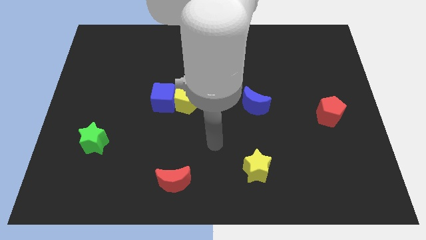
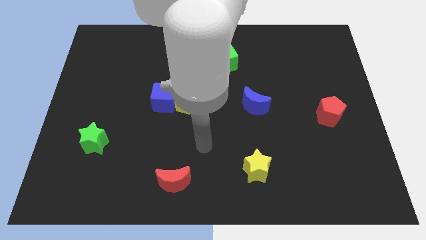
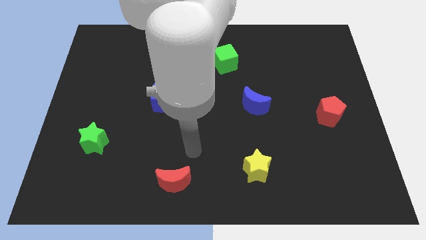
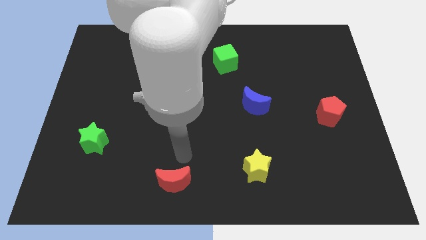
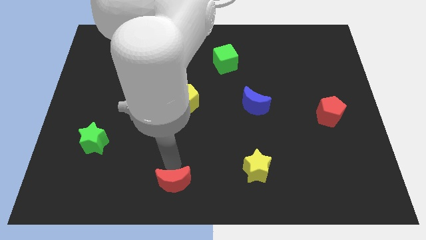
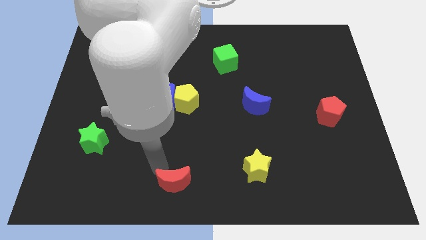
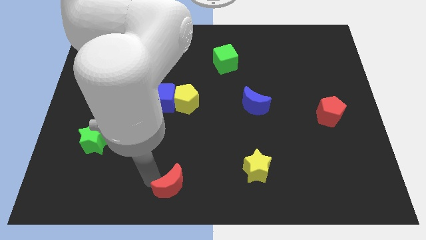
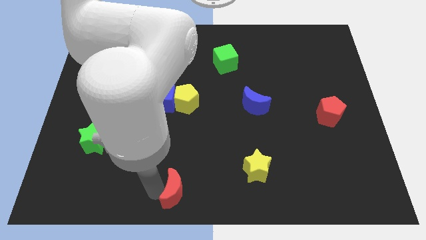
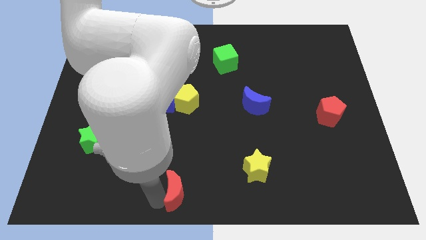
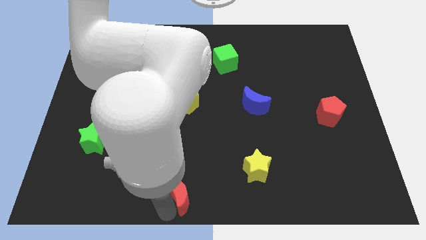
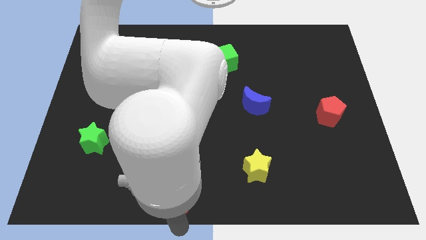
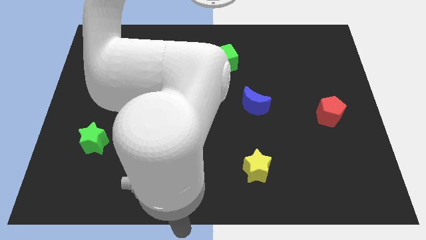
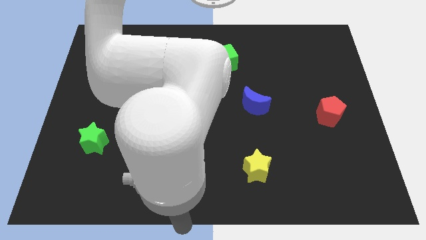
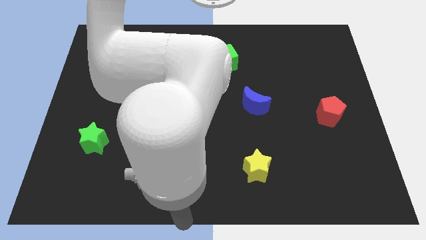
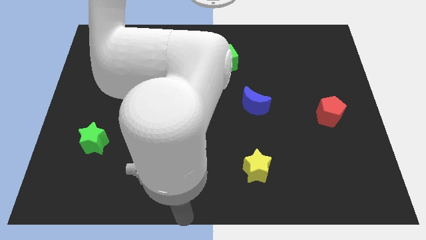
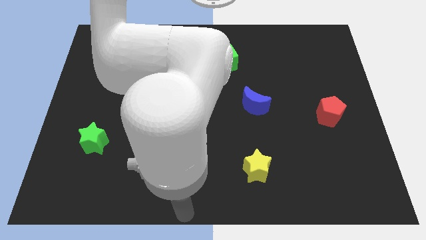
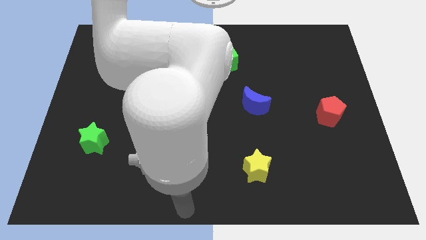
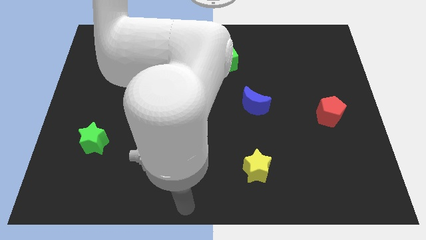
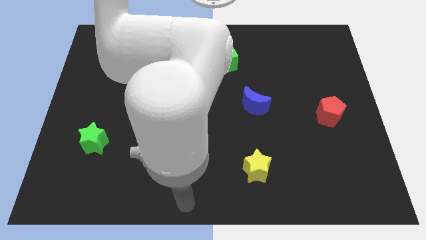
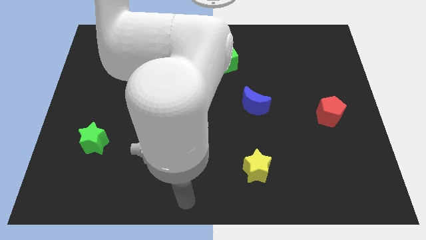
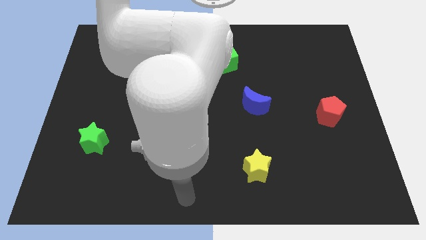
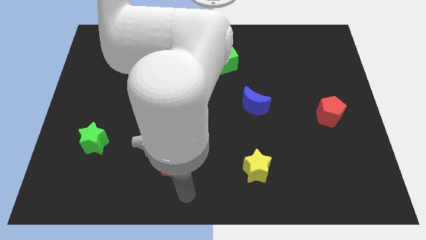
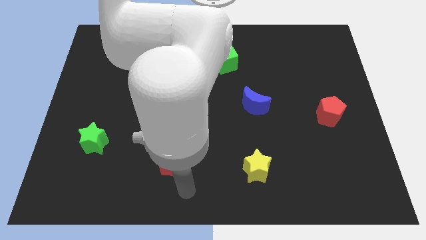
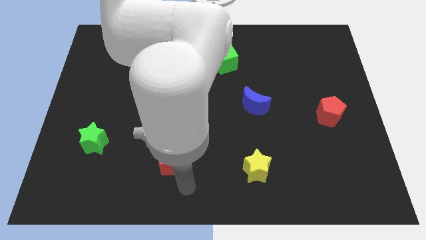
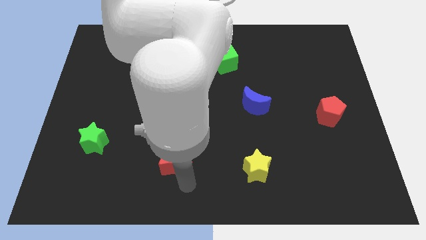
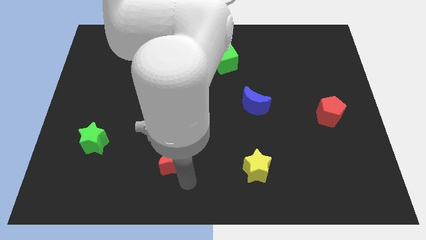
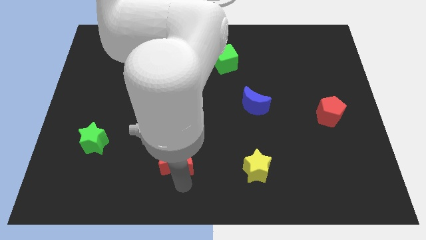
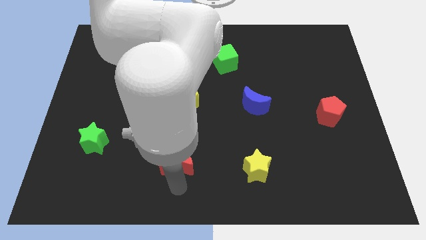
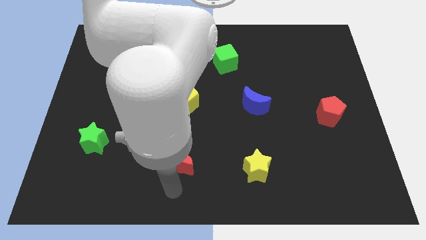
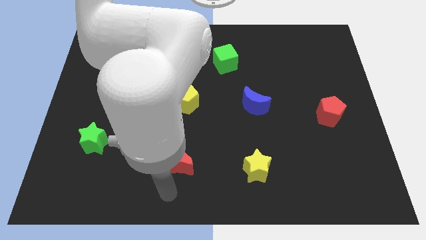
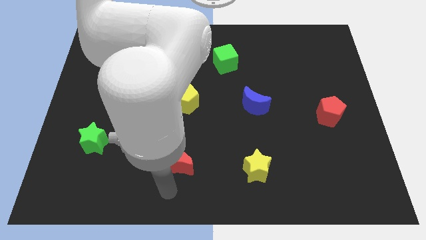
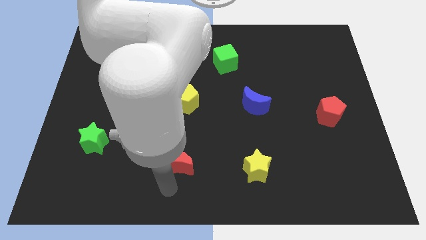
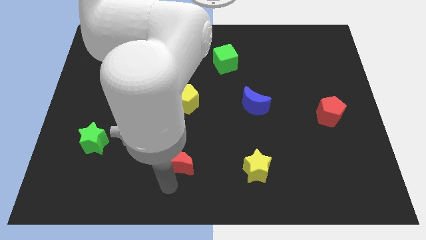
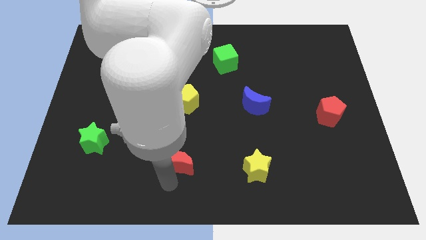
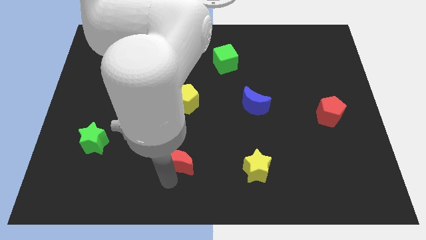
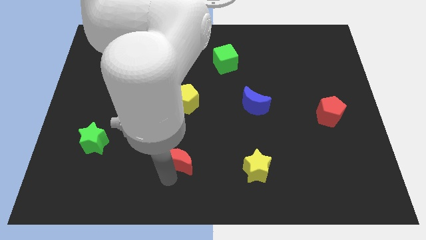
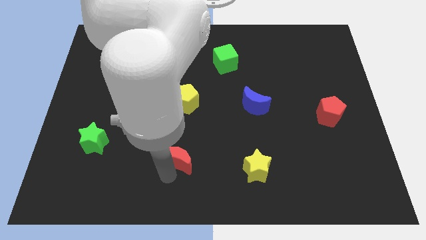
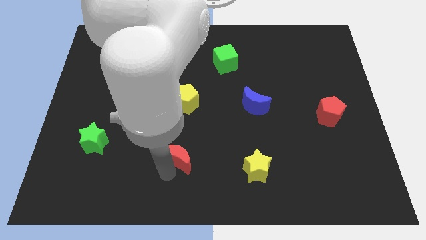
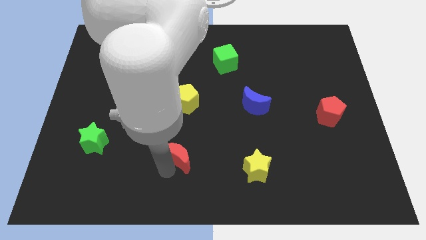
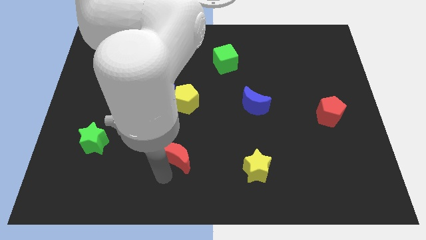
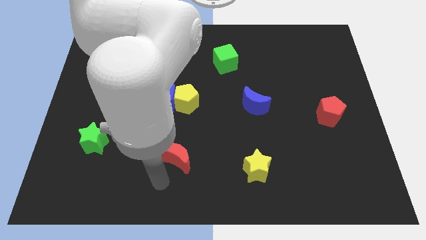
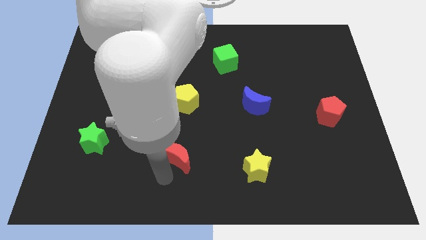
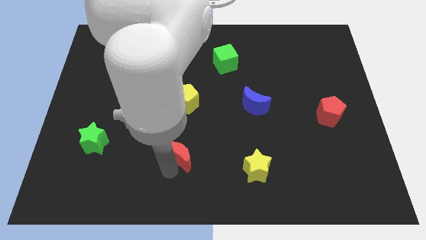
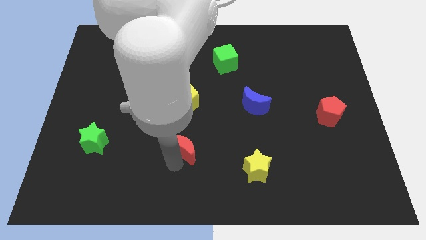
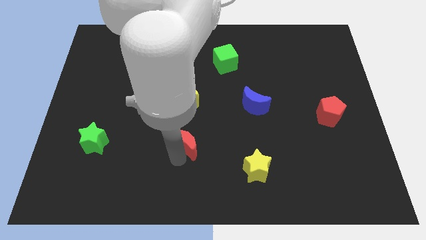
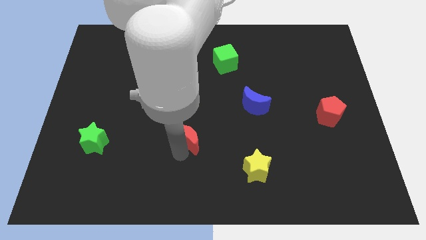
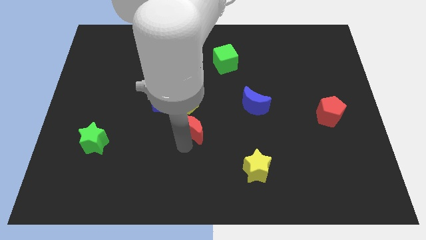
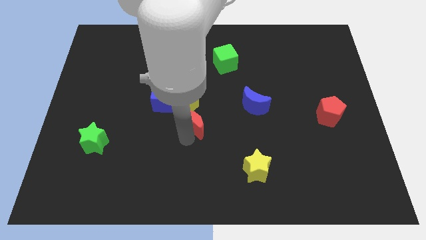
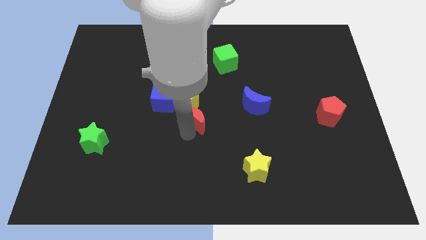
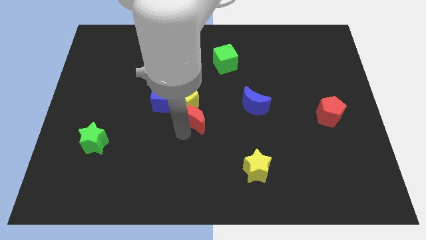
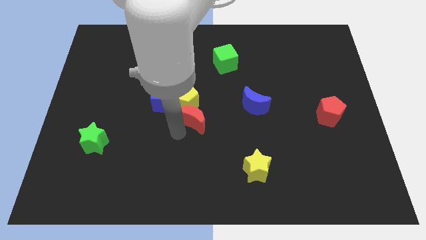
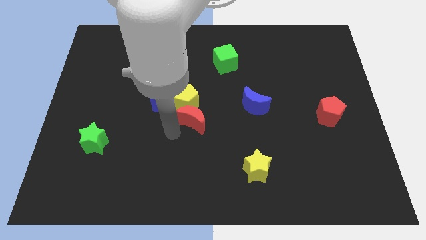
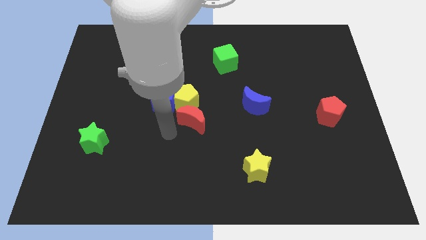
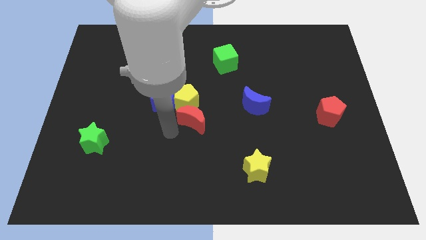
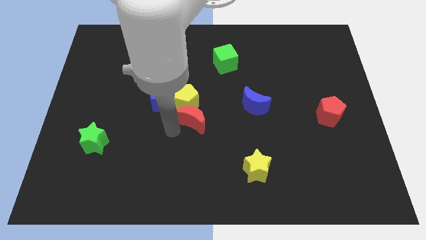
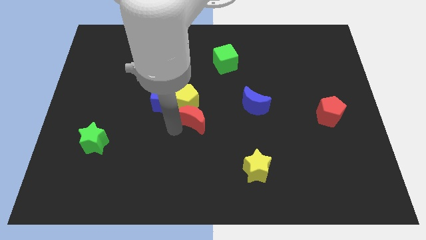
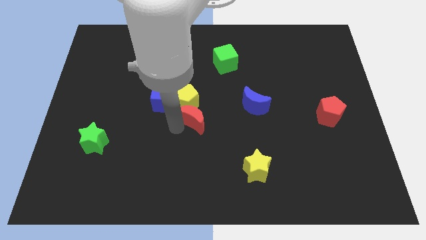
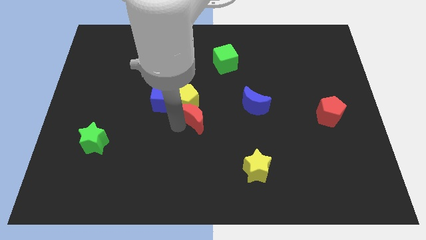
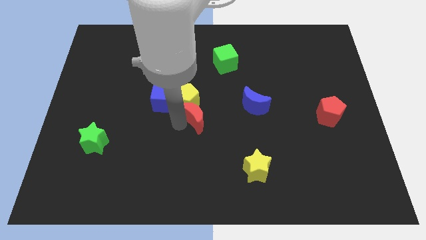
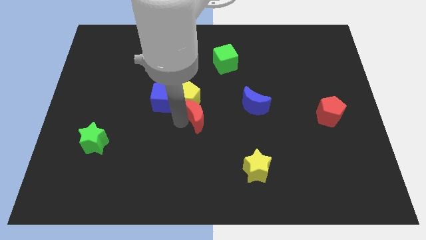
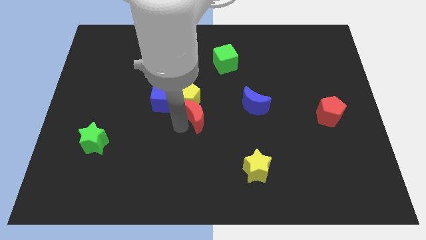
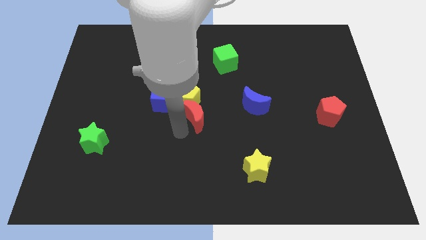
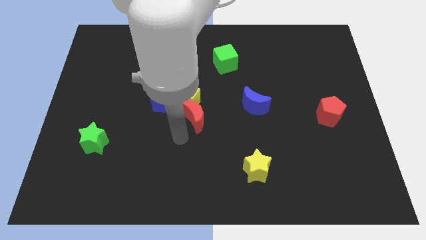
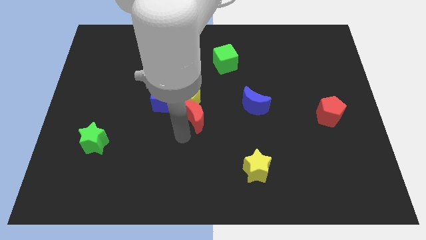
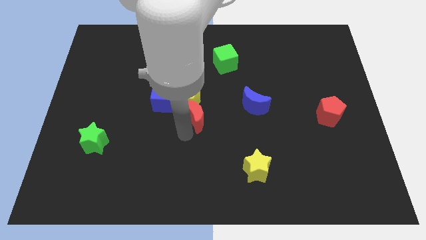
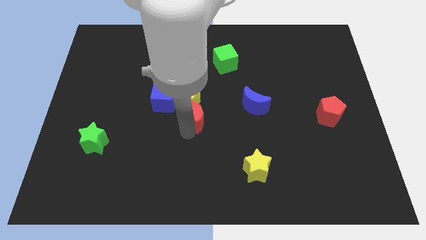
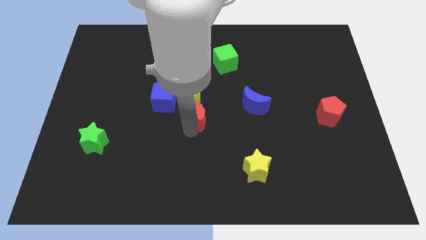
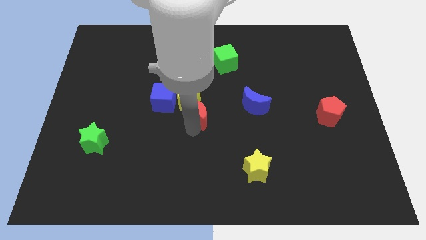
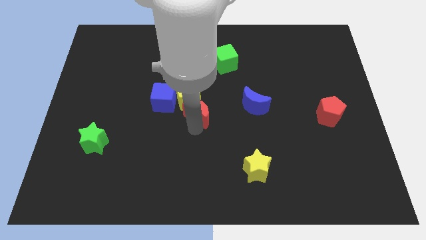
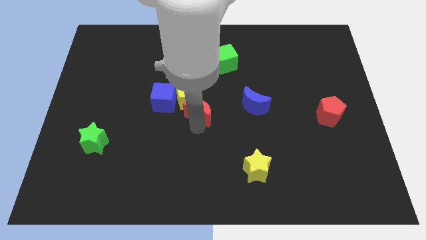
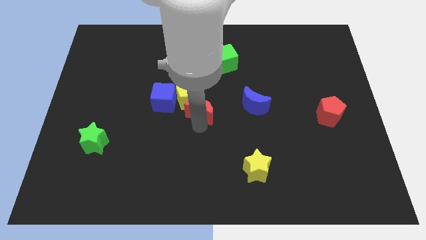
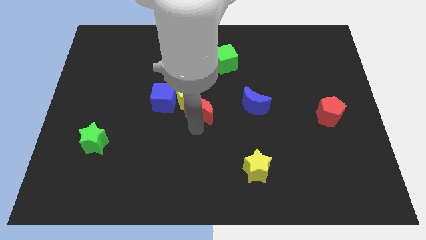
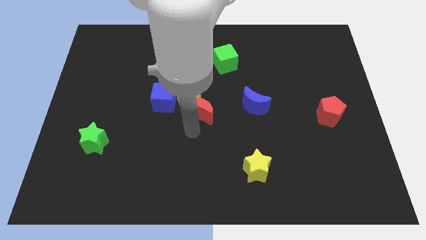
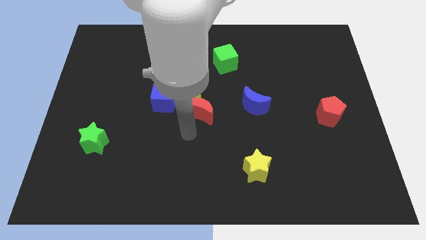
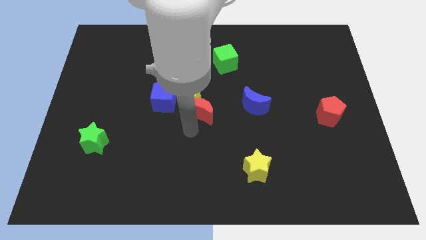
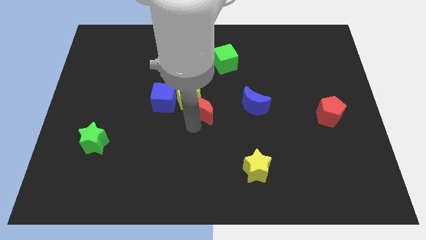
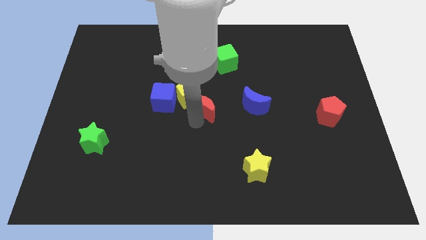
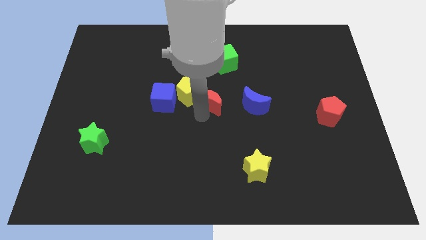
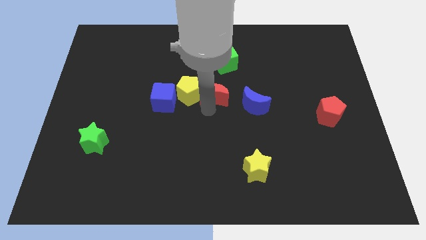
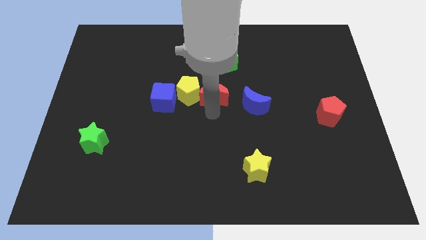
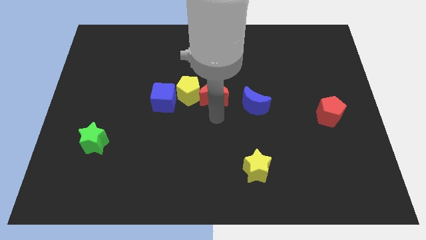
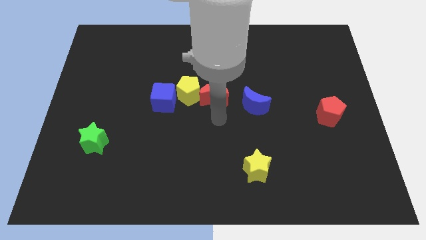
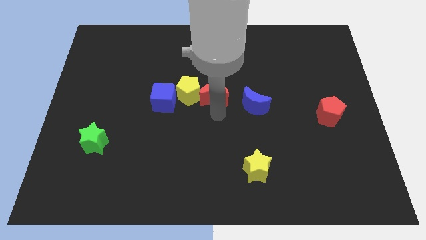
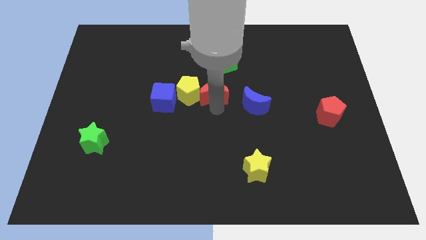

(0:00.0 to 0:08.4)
put the red moon diagonally up and to the right of the yellow pentagon
